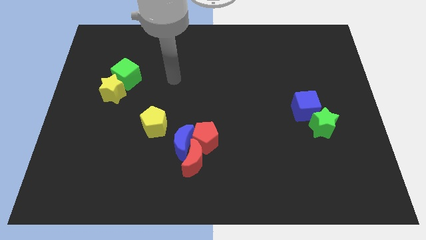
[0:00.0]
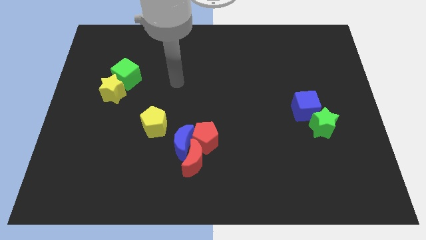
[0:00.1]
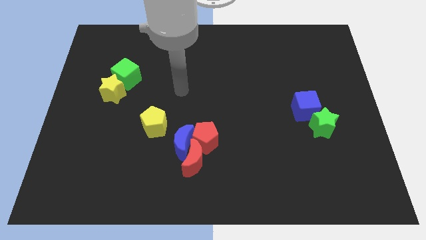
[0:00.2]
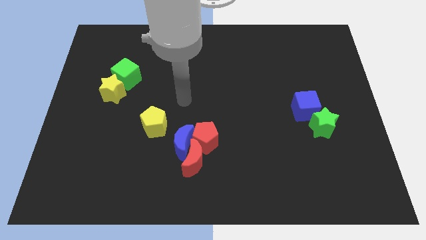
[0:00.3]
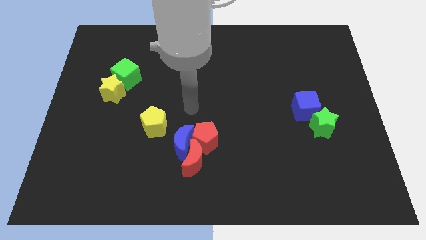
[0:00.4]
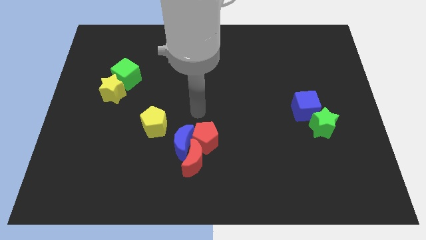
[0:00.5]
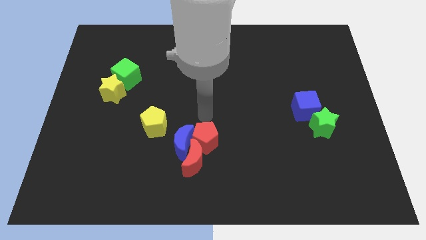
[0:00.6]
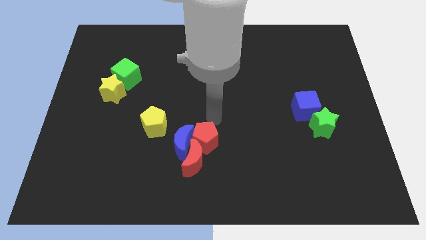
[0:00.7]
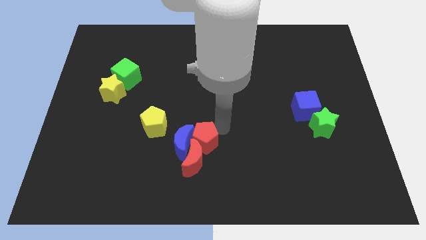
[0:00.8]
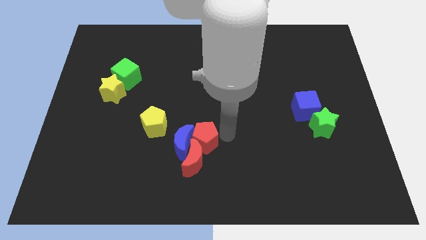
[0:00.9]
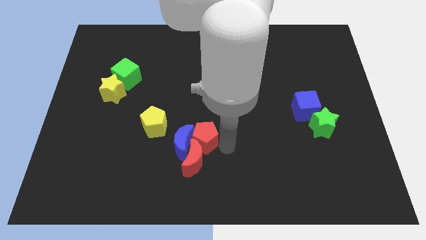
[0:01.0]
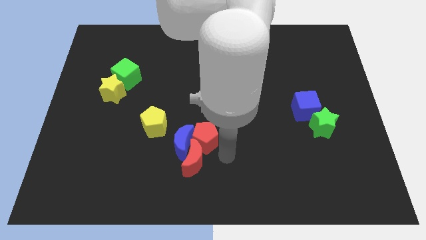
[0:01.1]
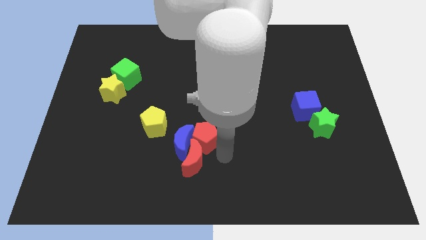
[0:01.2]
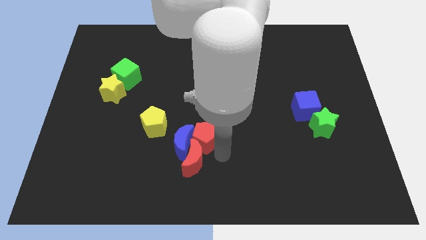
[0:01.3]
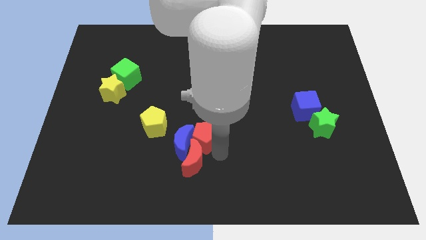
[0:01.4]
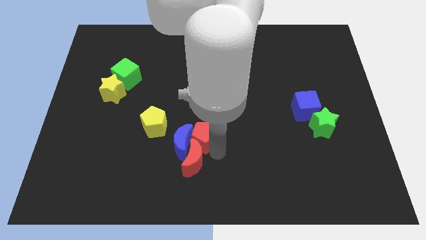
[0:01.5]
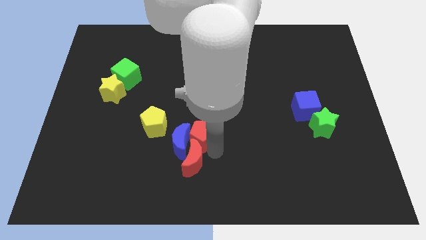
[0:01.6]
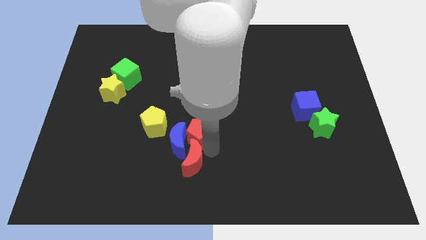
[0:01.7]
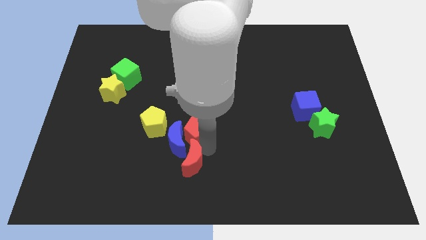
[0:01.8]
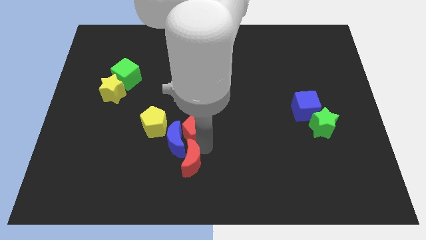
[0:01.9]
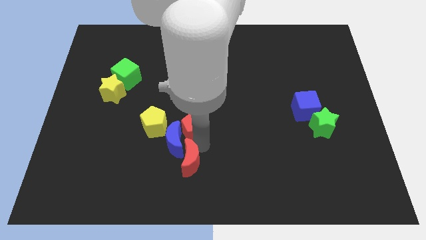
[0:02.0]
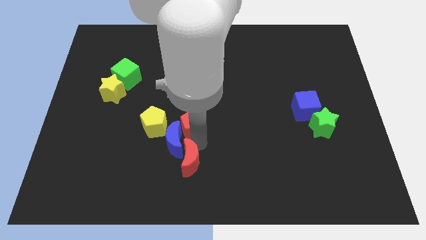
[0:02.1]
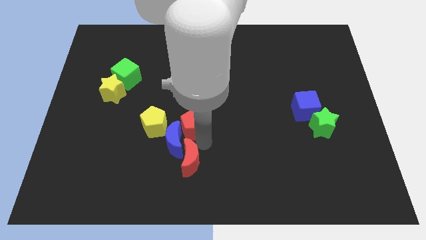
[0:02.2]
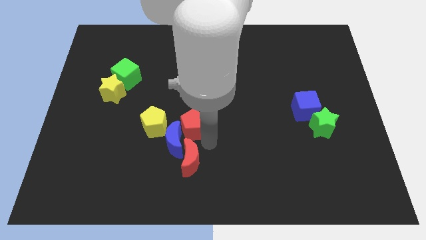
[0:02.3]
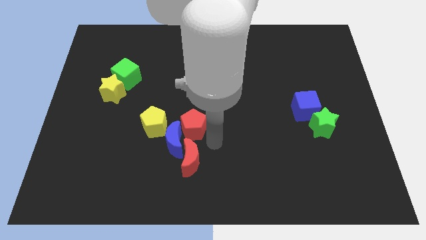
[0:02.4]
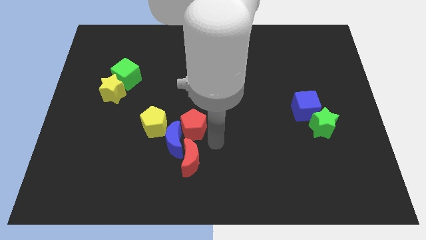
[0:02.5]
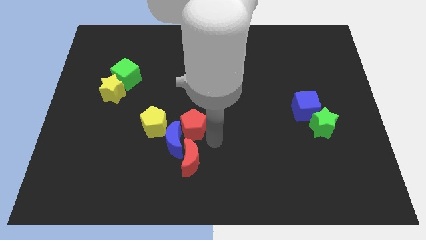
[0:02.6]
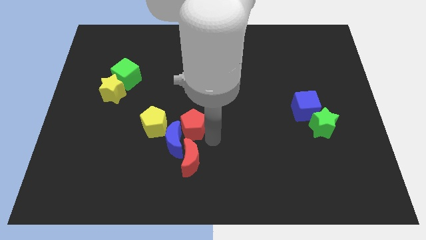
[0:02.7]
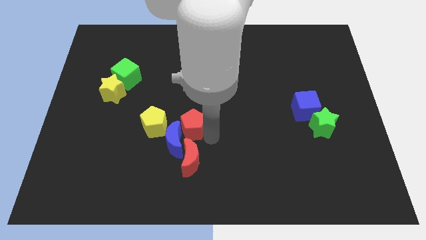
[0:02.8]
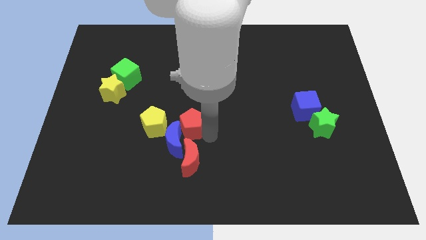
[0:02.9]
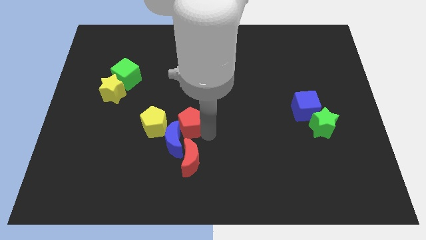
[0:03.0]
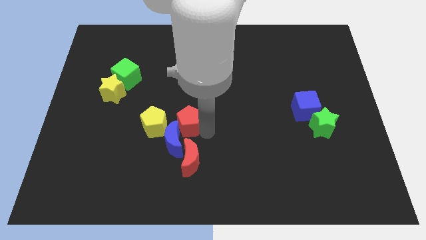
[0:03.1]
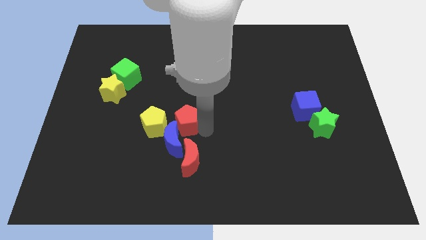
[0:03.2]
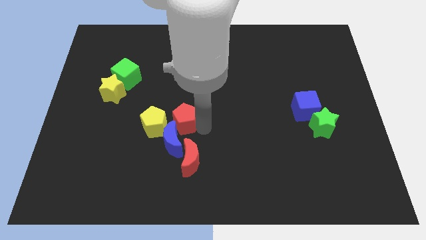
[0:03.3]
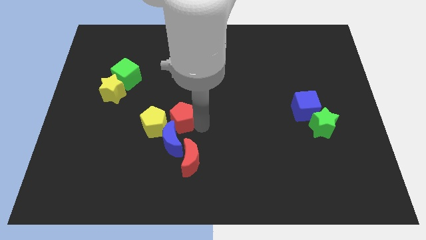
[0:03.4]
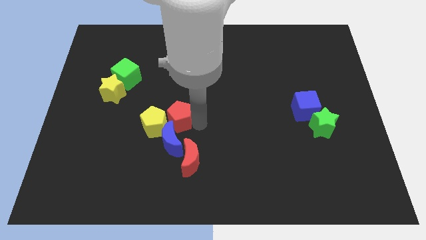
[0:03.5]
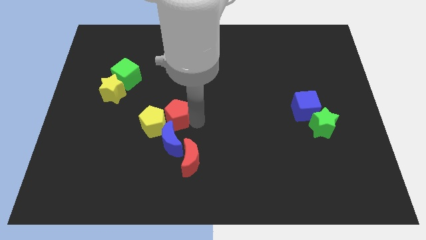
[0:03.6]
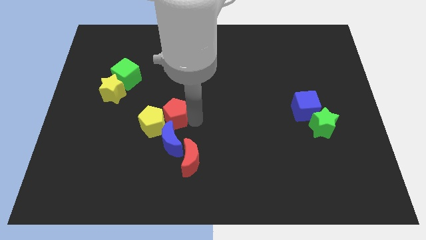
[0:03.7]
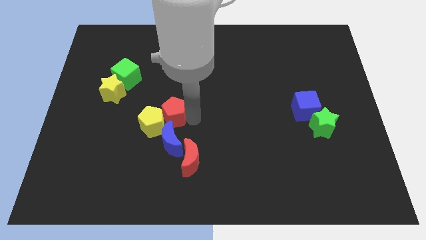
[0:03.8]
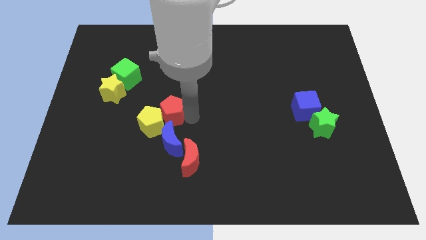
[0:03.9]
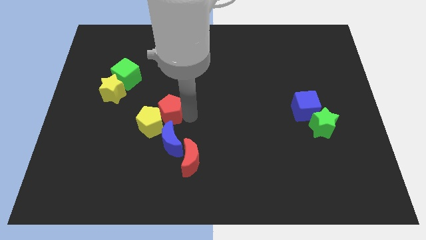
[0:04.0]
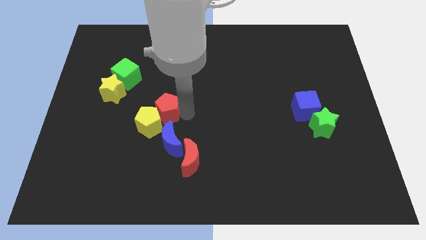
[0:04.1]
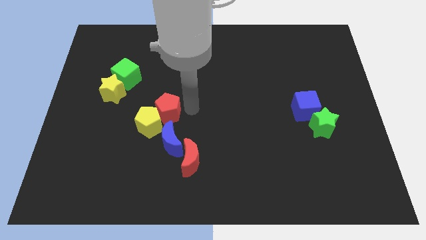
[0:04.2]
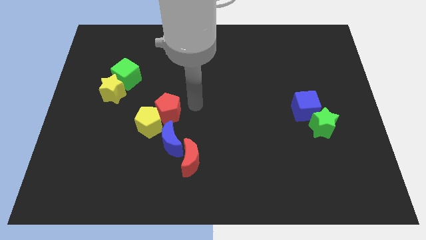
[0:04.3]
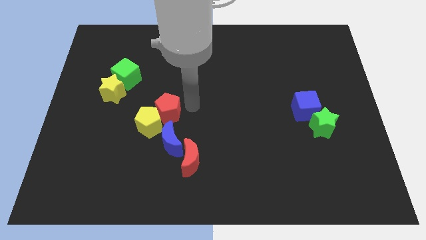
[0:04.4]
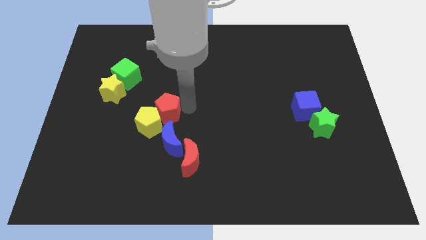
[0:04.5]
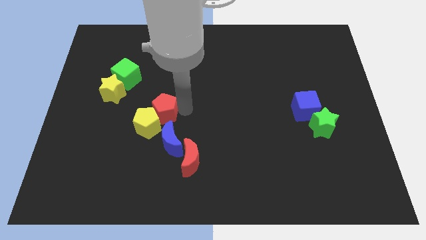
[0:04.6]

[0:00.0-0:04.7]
slide the red pentagon left a bit

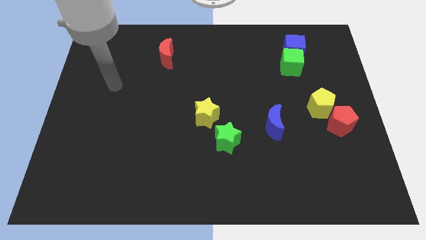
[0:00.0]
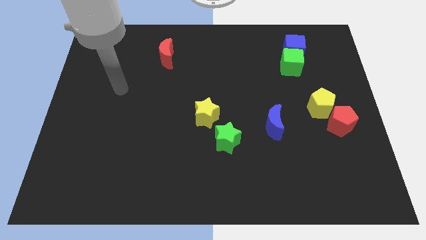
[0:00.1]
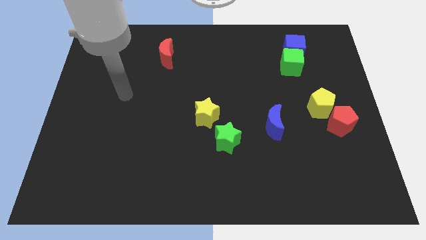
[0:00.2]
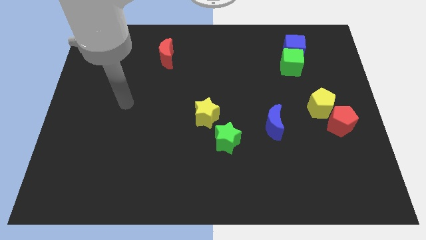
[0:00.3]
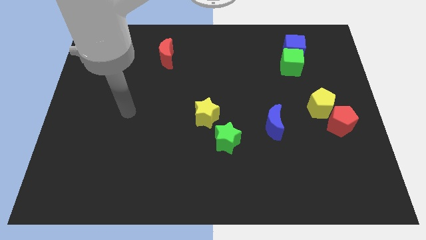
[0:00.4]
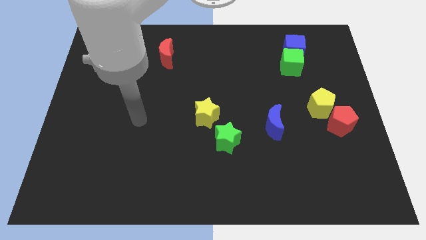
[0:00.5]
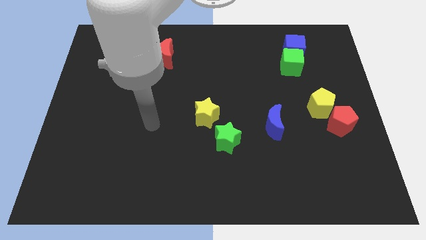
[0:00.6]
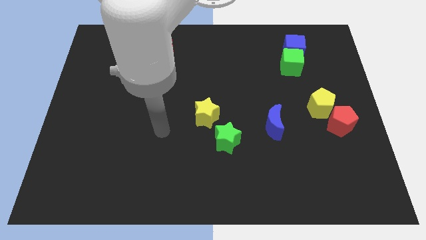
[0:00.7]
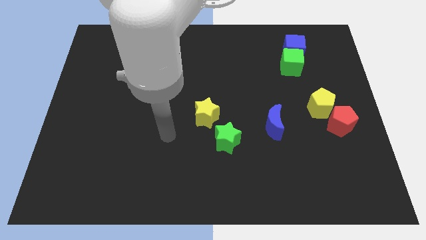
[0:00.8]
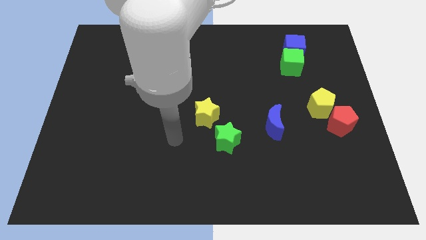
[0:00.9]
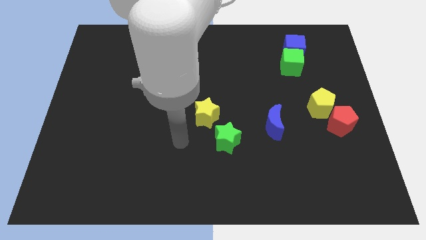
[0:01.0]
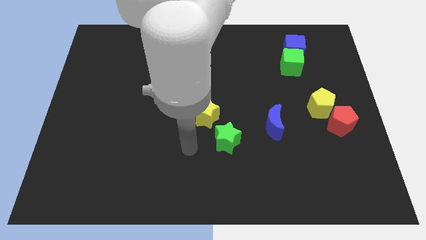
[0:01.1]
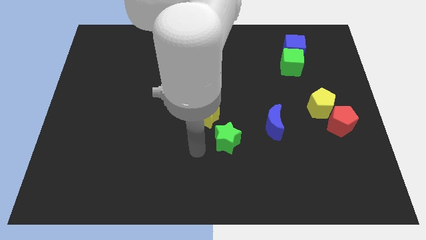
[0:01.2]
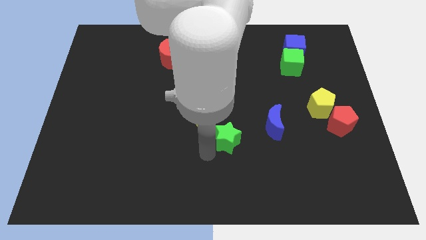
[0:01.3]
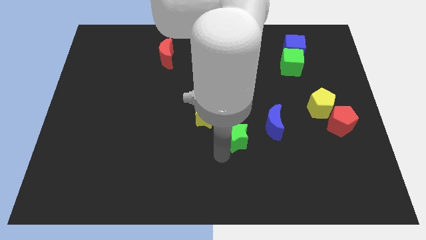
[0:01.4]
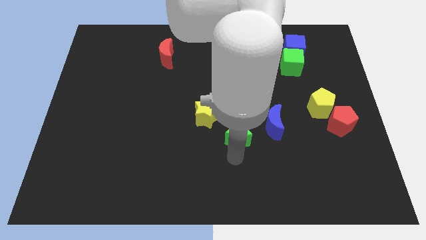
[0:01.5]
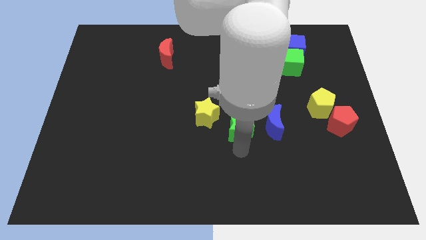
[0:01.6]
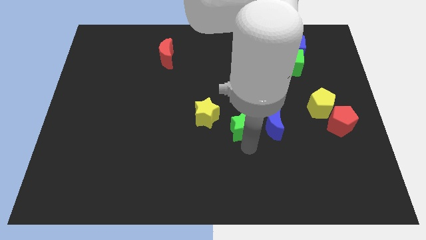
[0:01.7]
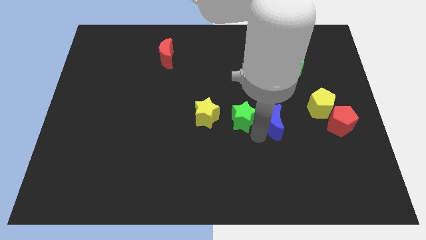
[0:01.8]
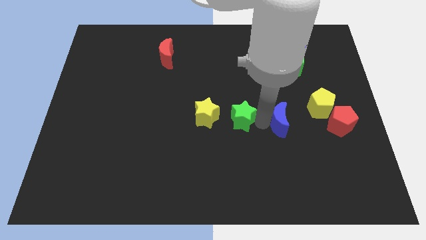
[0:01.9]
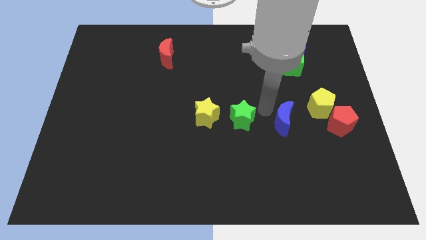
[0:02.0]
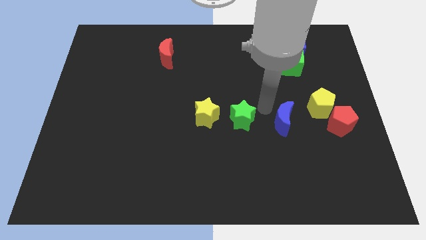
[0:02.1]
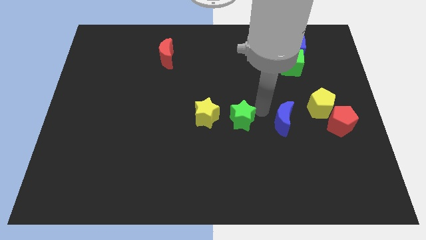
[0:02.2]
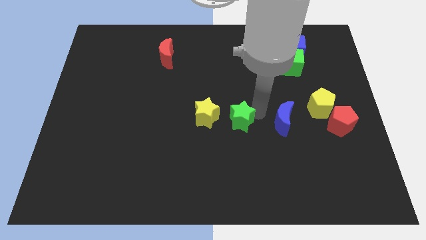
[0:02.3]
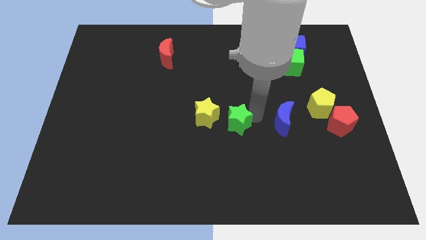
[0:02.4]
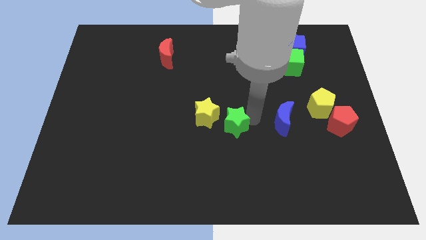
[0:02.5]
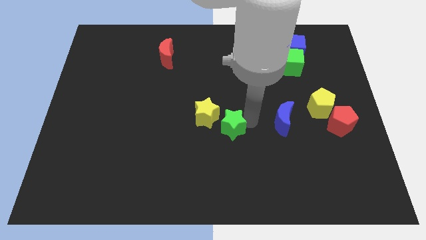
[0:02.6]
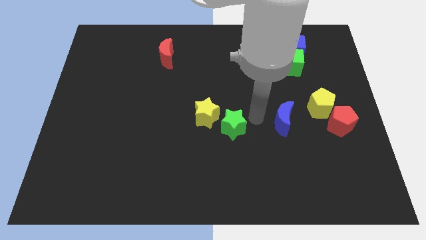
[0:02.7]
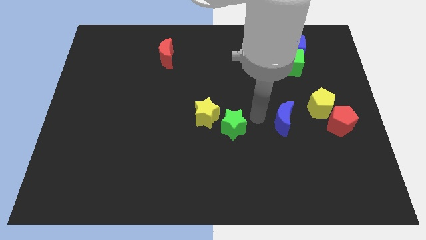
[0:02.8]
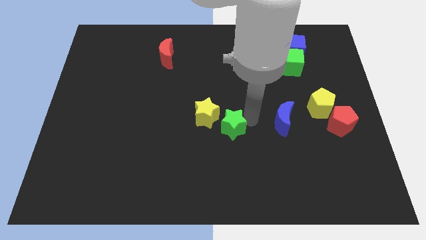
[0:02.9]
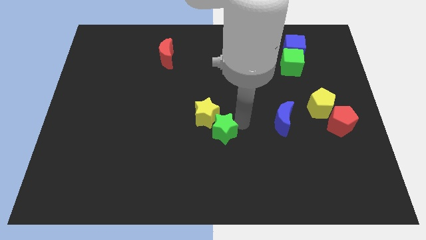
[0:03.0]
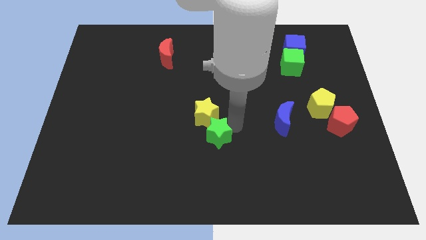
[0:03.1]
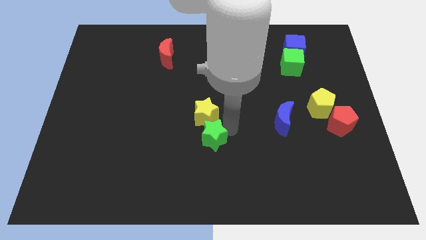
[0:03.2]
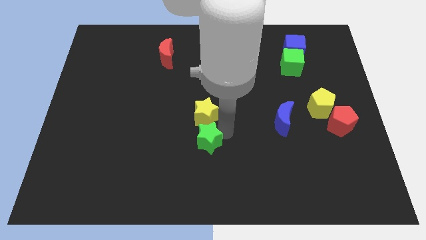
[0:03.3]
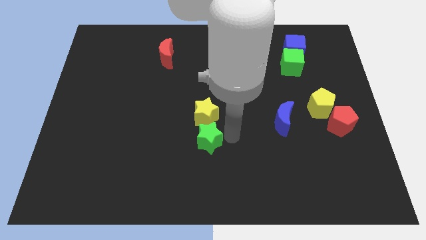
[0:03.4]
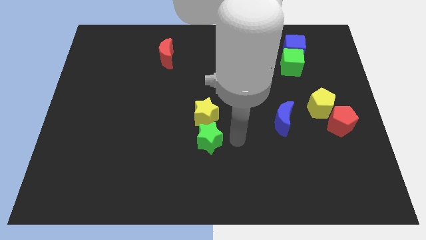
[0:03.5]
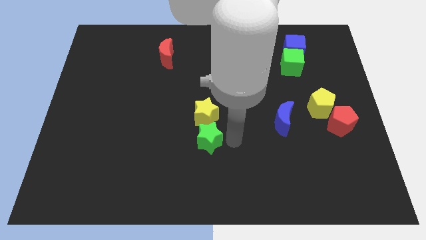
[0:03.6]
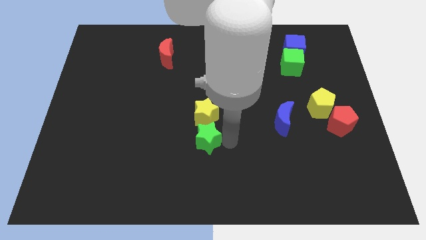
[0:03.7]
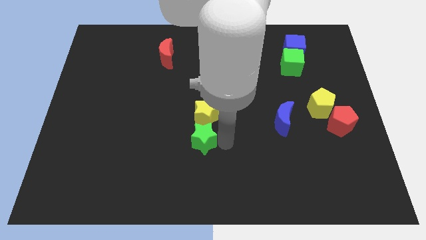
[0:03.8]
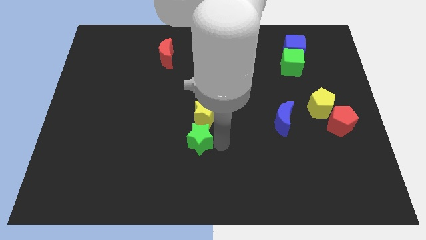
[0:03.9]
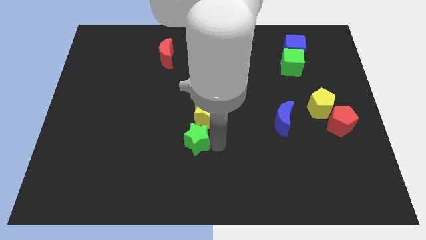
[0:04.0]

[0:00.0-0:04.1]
slightly move the green star to the left
